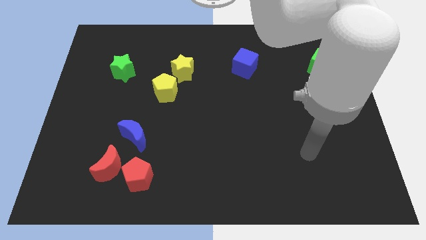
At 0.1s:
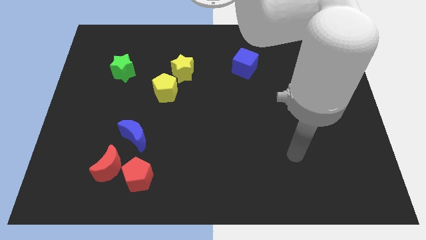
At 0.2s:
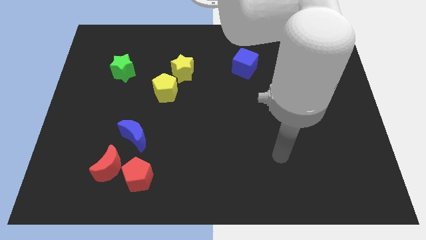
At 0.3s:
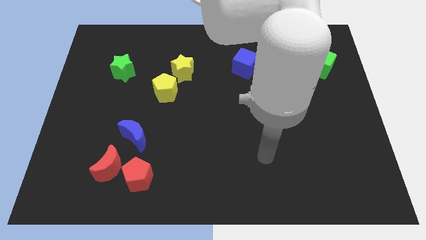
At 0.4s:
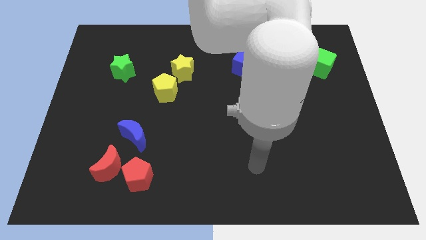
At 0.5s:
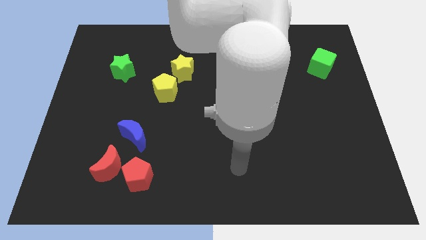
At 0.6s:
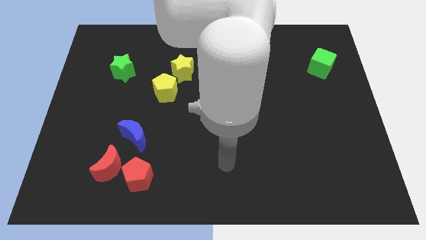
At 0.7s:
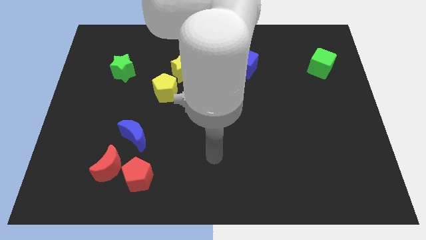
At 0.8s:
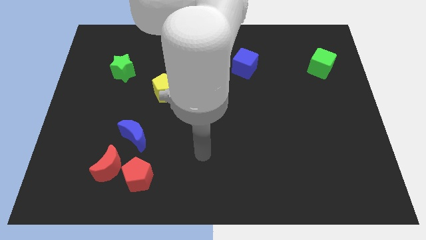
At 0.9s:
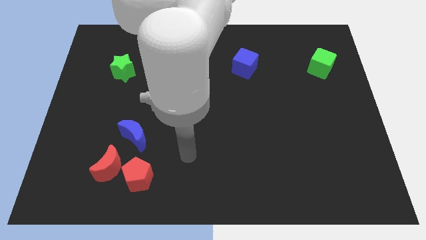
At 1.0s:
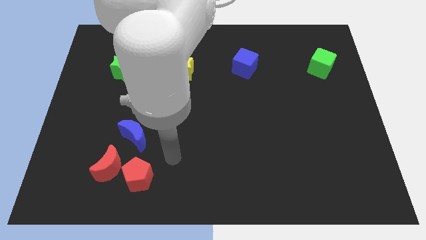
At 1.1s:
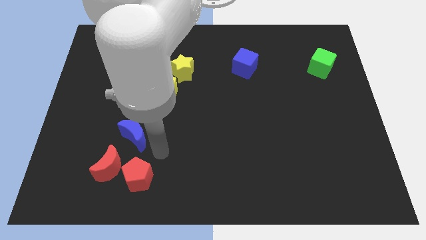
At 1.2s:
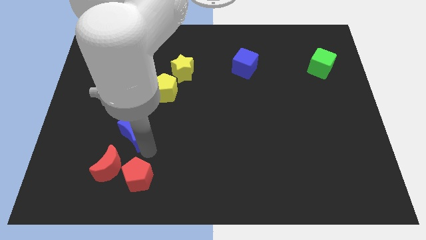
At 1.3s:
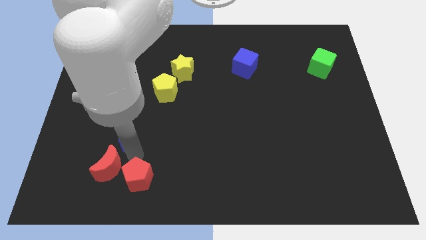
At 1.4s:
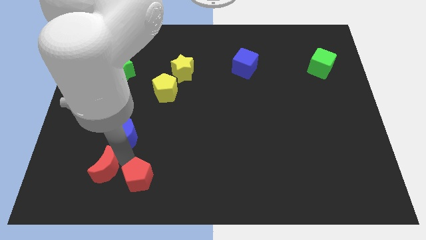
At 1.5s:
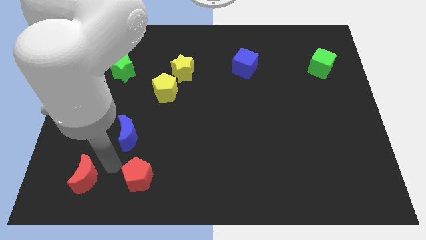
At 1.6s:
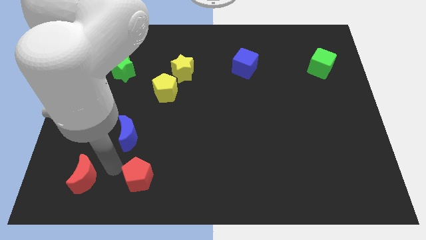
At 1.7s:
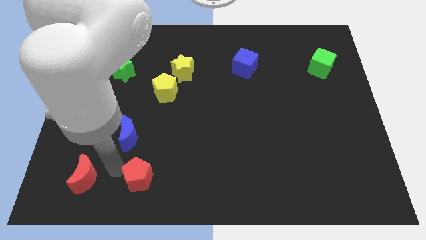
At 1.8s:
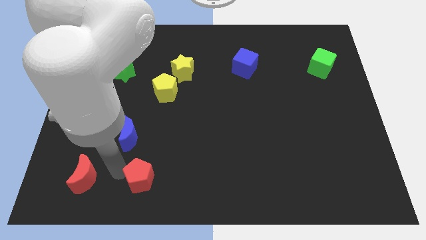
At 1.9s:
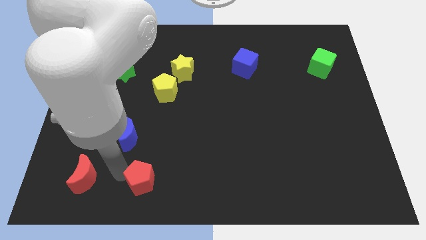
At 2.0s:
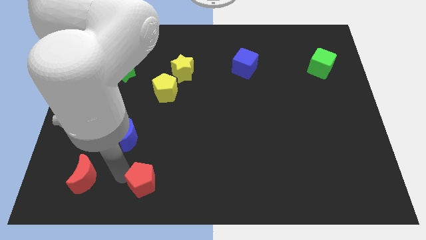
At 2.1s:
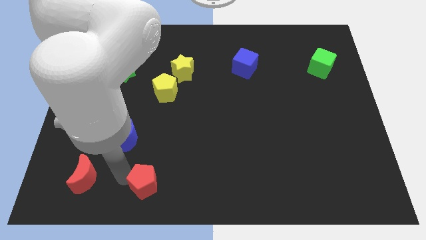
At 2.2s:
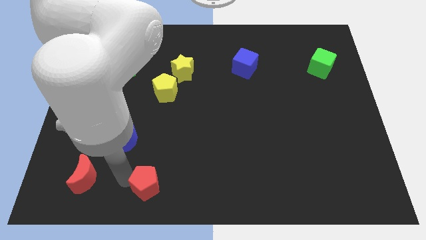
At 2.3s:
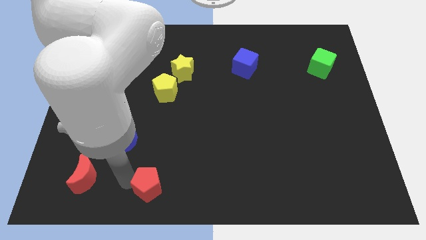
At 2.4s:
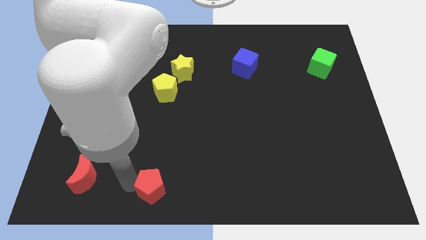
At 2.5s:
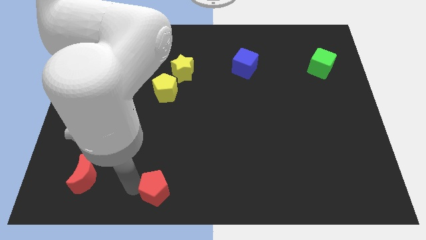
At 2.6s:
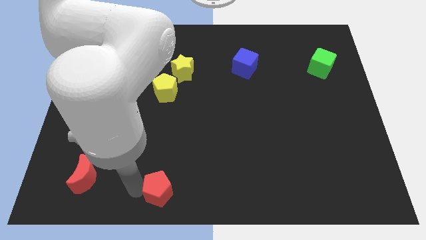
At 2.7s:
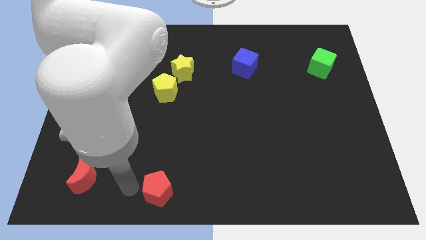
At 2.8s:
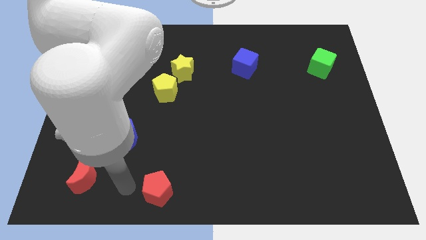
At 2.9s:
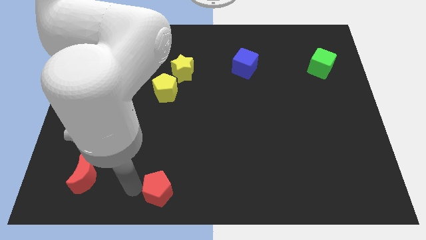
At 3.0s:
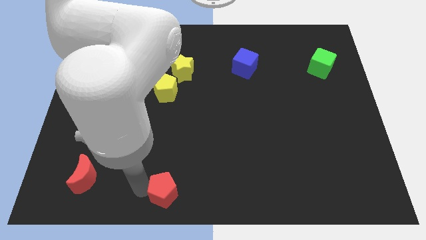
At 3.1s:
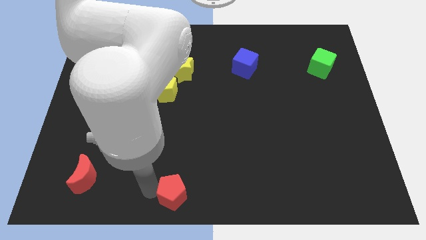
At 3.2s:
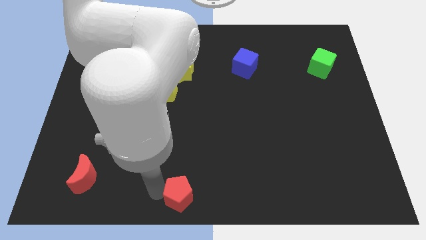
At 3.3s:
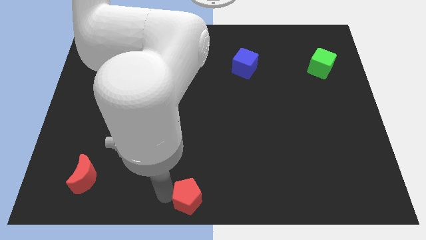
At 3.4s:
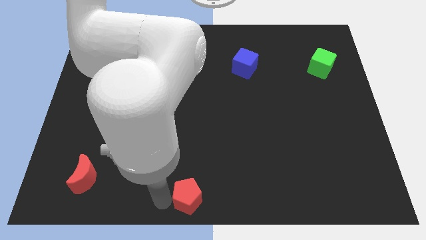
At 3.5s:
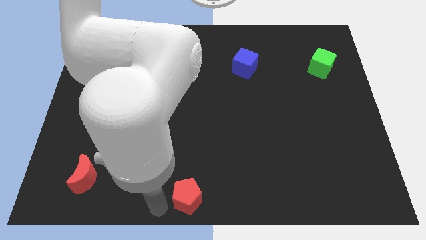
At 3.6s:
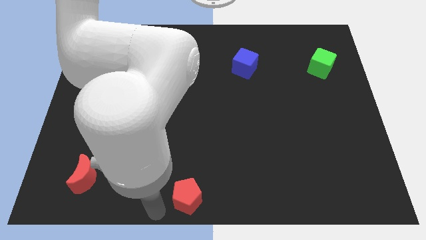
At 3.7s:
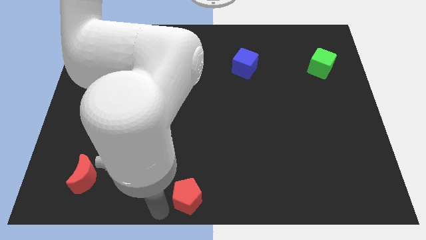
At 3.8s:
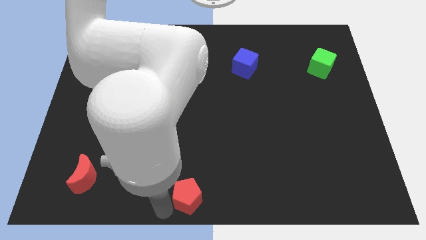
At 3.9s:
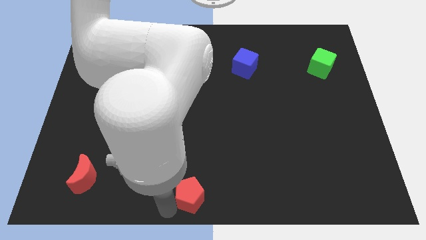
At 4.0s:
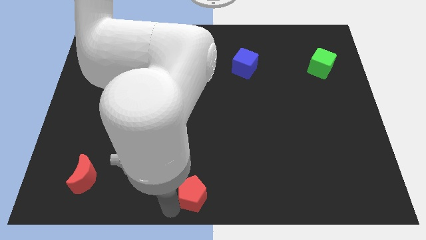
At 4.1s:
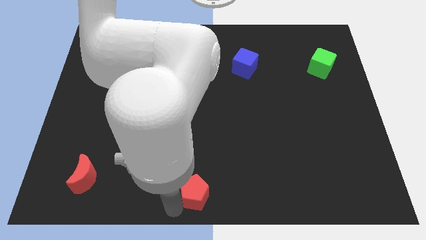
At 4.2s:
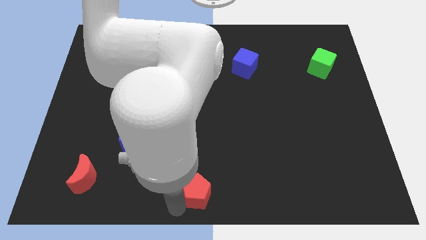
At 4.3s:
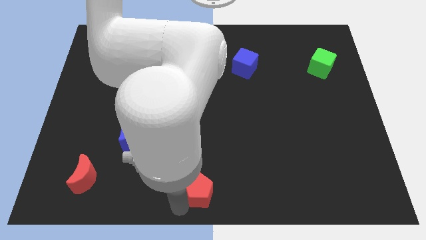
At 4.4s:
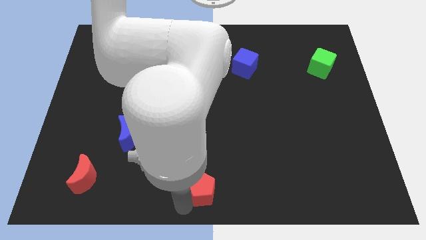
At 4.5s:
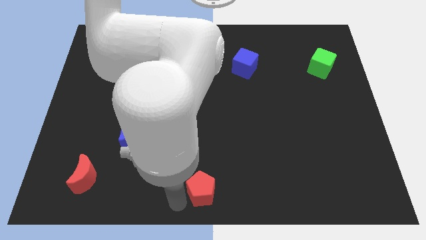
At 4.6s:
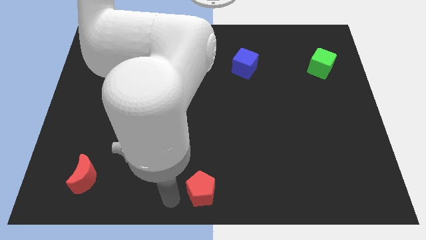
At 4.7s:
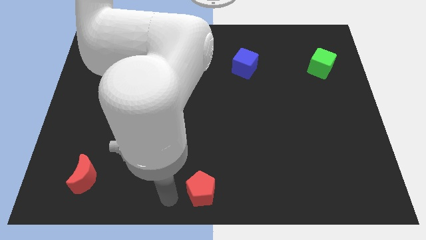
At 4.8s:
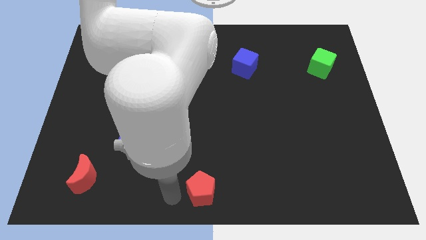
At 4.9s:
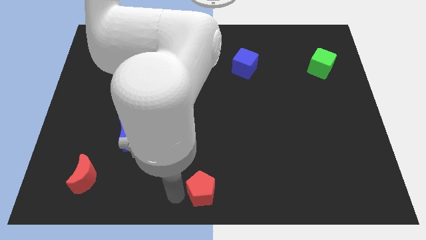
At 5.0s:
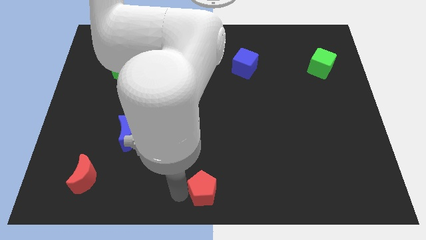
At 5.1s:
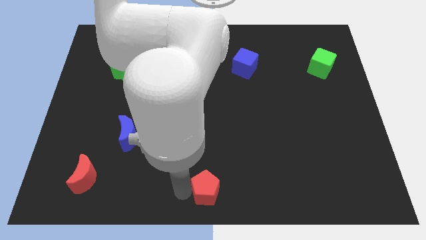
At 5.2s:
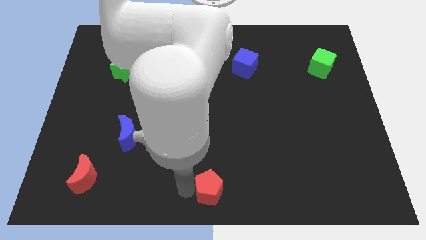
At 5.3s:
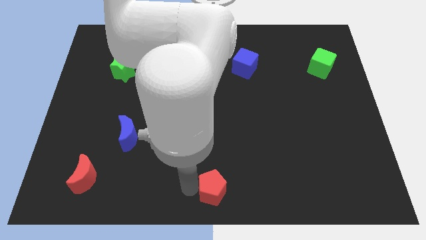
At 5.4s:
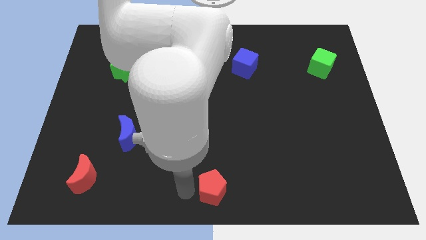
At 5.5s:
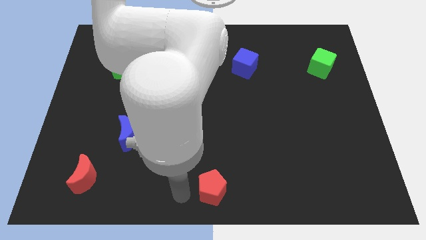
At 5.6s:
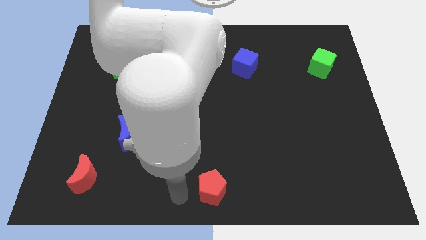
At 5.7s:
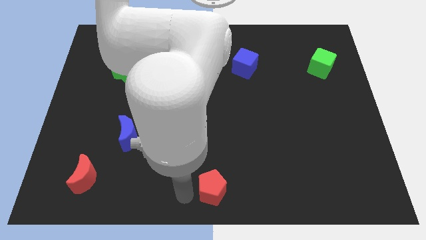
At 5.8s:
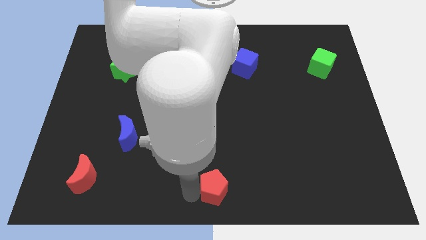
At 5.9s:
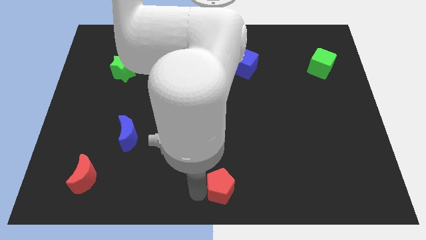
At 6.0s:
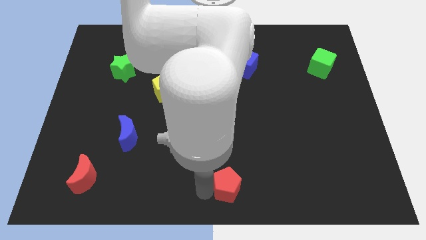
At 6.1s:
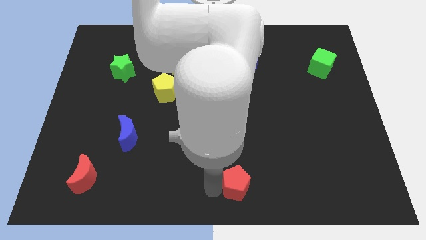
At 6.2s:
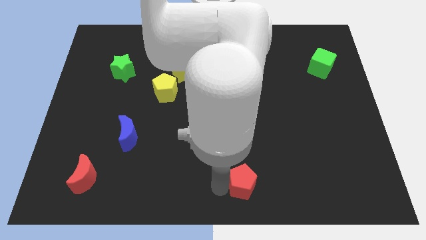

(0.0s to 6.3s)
move the red pentagon to the right

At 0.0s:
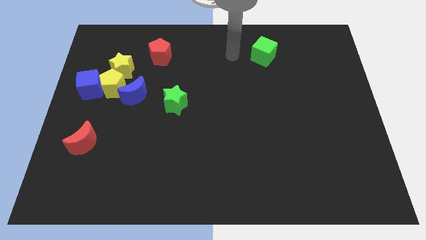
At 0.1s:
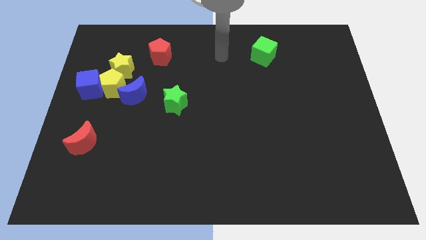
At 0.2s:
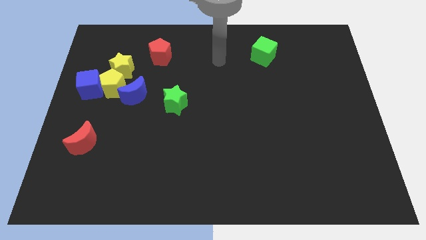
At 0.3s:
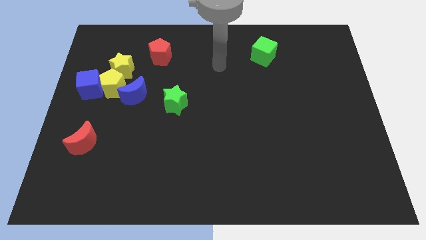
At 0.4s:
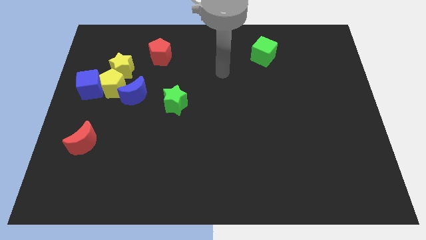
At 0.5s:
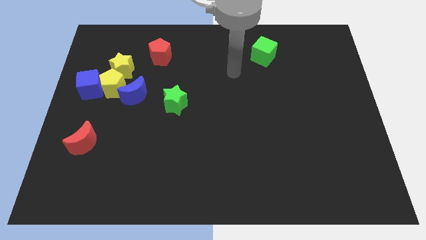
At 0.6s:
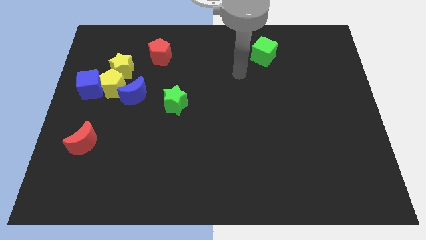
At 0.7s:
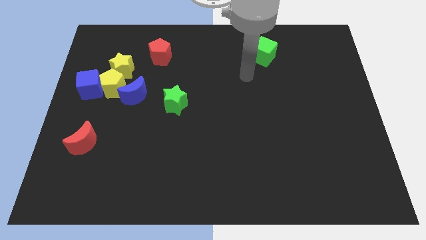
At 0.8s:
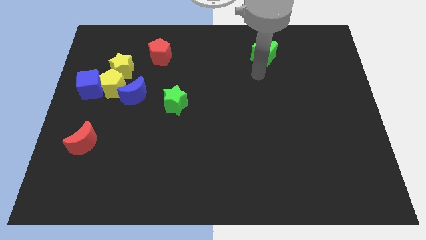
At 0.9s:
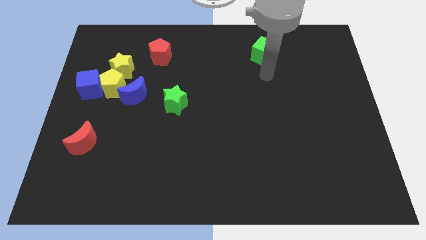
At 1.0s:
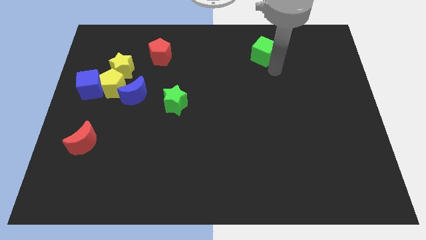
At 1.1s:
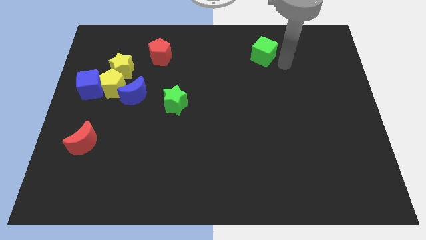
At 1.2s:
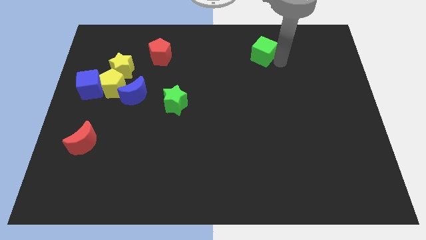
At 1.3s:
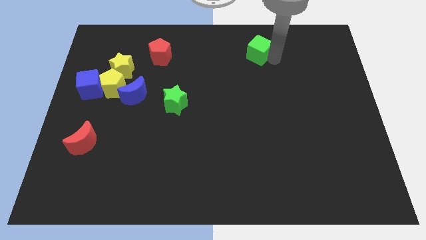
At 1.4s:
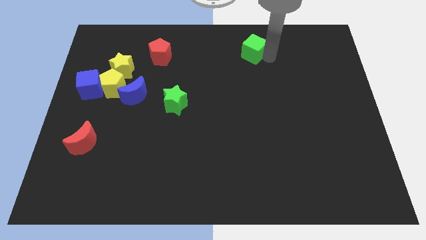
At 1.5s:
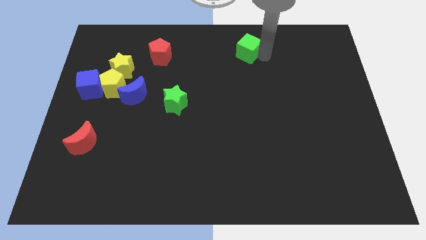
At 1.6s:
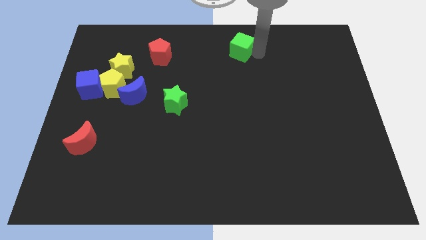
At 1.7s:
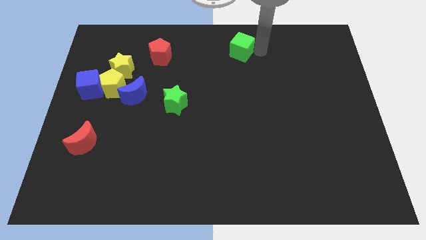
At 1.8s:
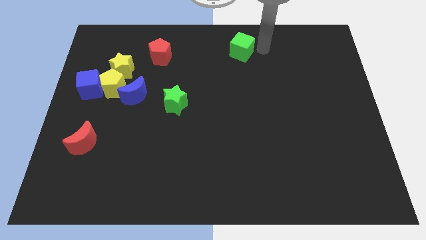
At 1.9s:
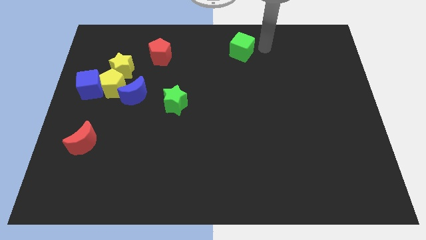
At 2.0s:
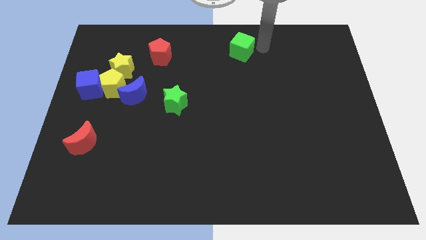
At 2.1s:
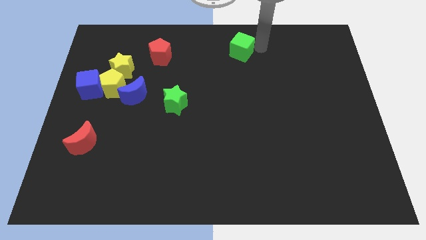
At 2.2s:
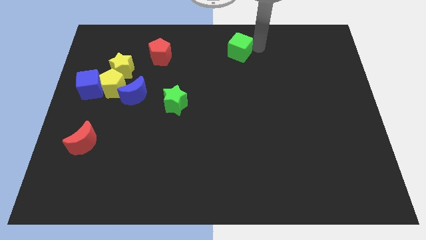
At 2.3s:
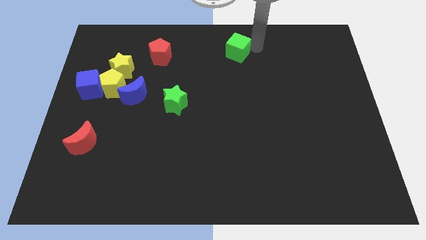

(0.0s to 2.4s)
push the green cube to the left slightly

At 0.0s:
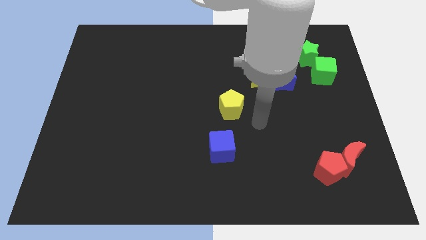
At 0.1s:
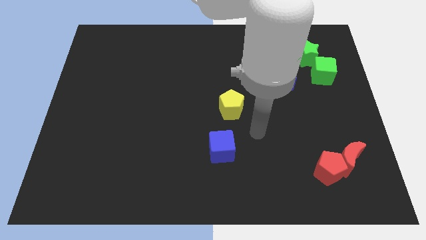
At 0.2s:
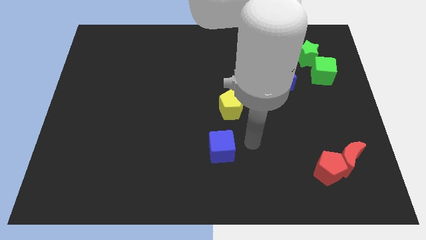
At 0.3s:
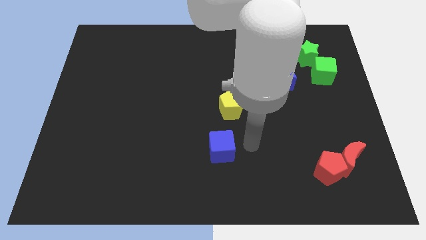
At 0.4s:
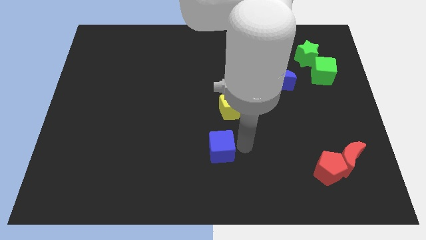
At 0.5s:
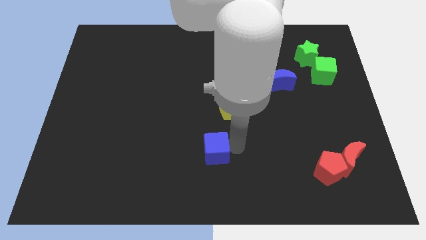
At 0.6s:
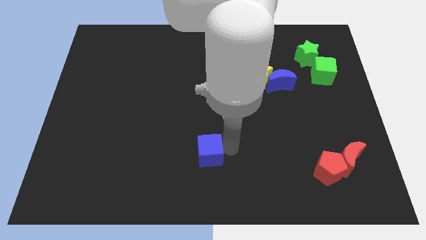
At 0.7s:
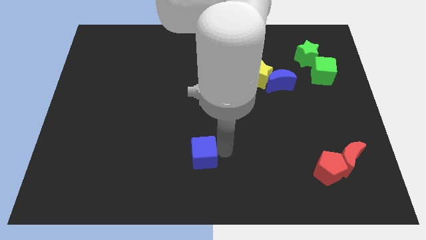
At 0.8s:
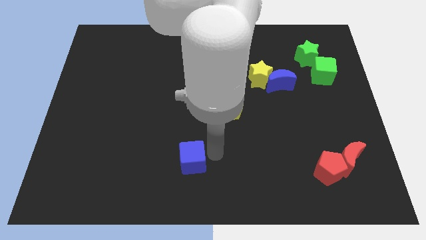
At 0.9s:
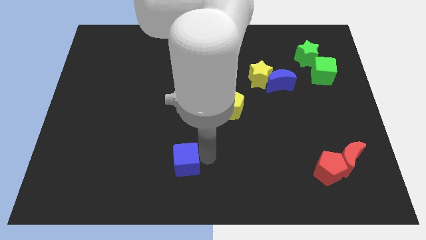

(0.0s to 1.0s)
move the blue cube slightly to the left
